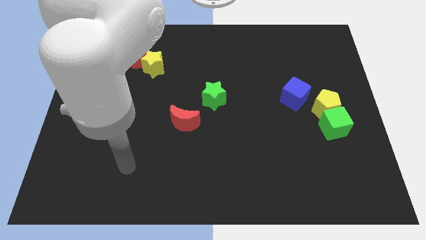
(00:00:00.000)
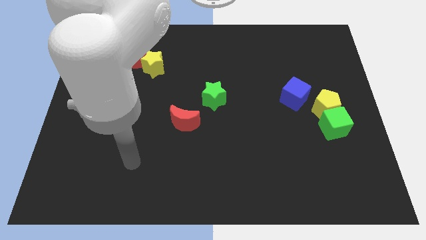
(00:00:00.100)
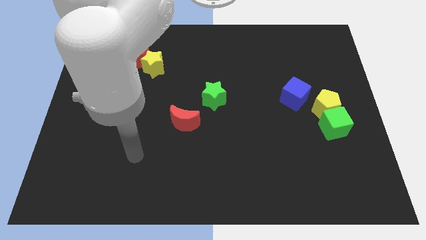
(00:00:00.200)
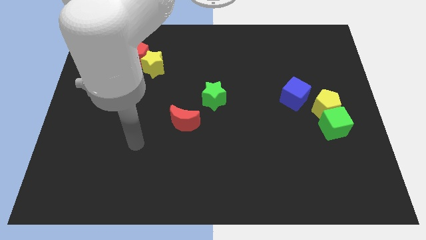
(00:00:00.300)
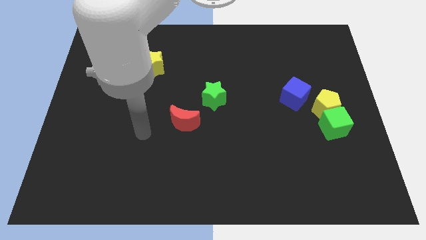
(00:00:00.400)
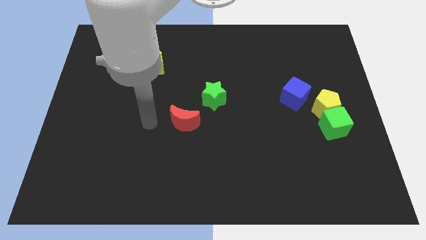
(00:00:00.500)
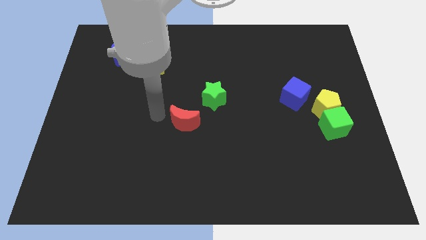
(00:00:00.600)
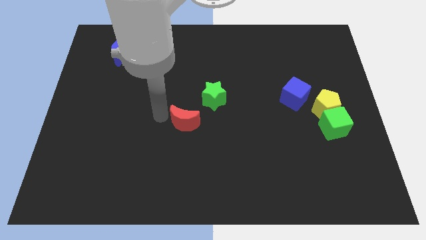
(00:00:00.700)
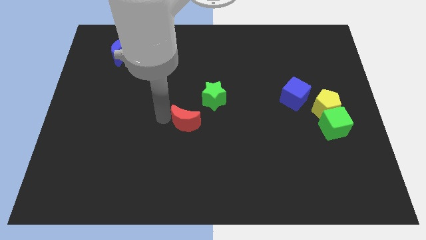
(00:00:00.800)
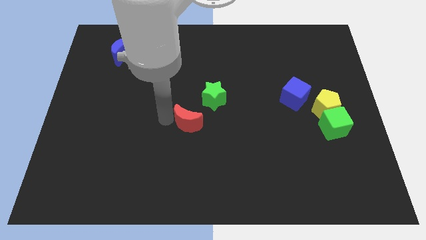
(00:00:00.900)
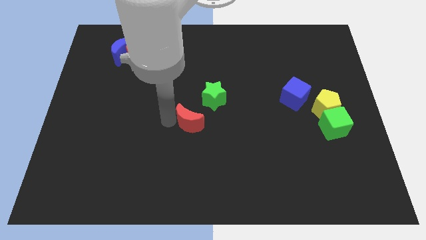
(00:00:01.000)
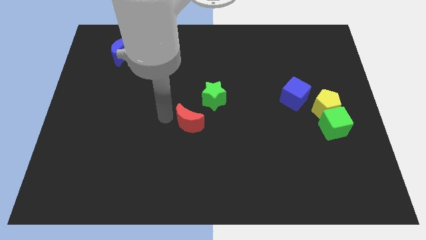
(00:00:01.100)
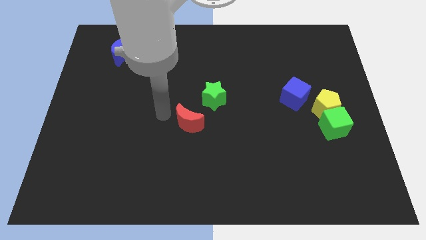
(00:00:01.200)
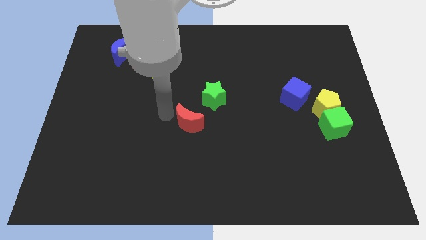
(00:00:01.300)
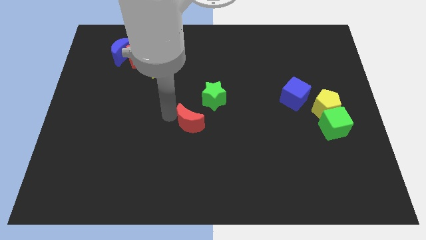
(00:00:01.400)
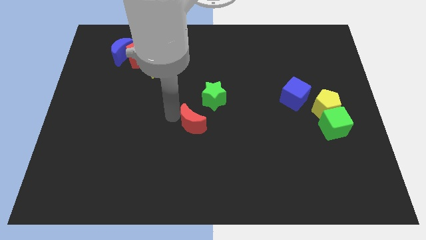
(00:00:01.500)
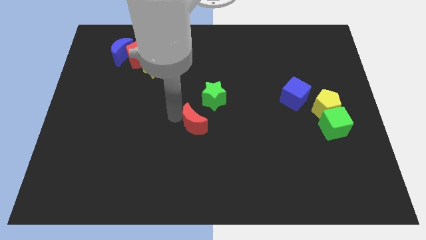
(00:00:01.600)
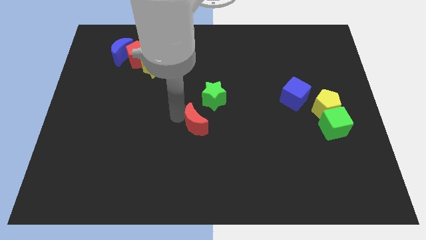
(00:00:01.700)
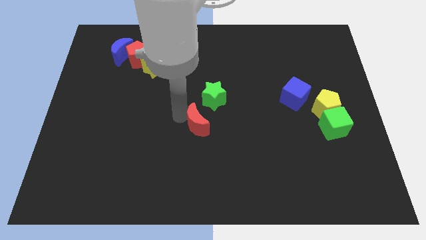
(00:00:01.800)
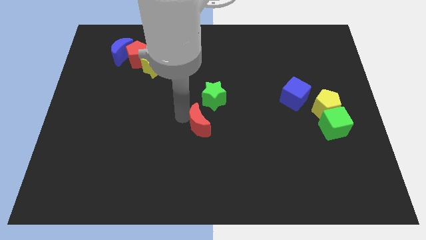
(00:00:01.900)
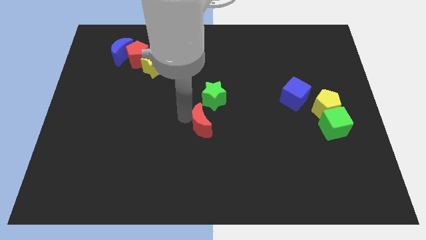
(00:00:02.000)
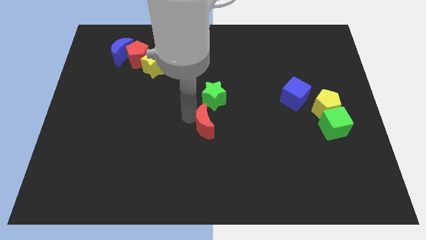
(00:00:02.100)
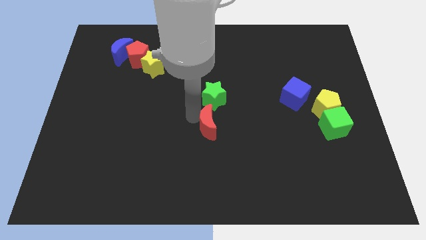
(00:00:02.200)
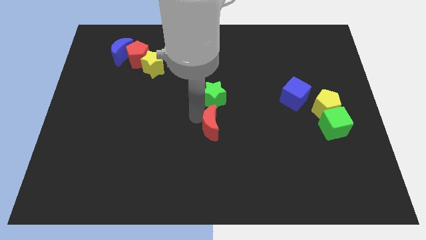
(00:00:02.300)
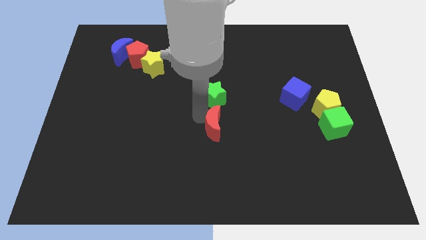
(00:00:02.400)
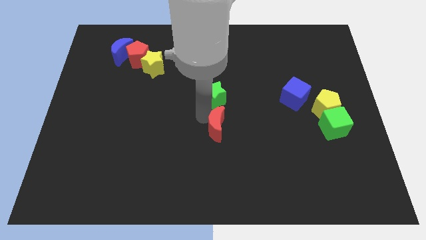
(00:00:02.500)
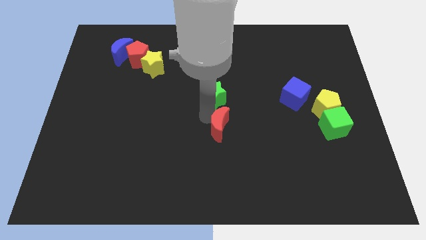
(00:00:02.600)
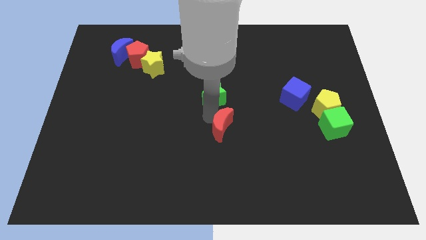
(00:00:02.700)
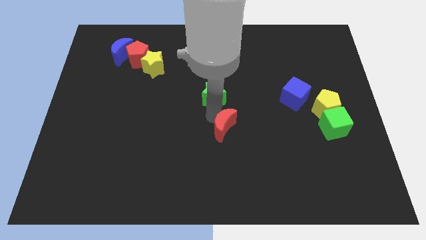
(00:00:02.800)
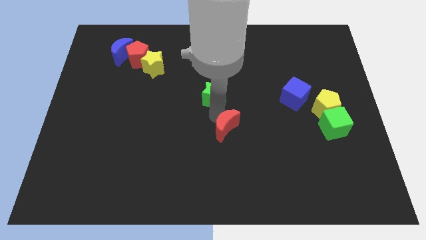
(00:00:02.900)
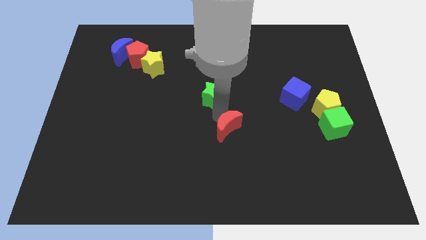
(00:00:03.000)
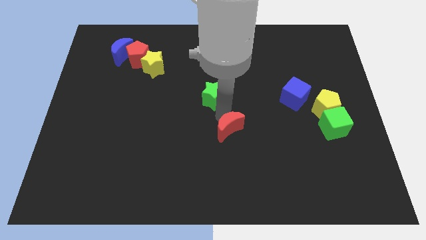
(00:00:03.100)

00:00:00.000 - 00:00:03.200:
move the red moon diagonally down and right a bit

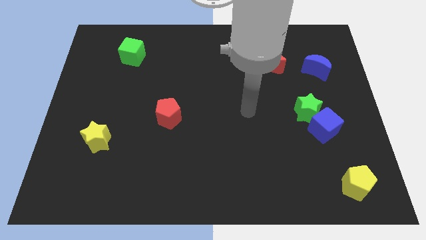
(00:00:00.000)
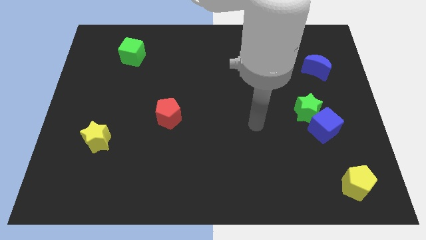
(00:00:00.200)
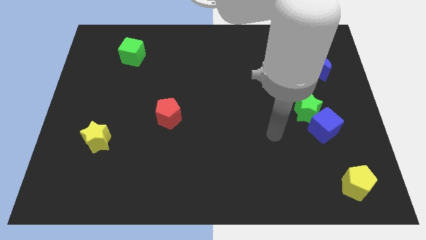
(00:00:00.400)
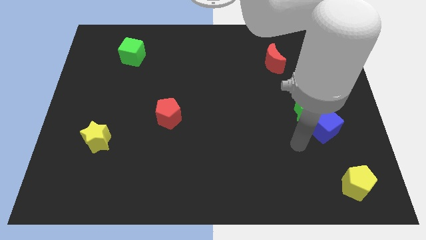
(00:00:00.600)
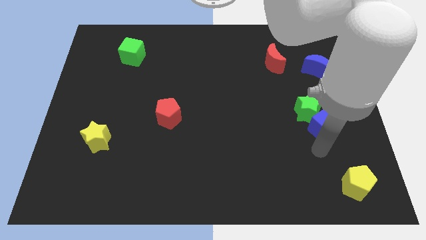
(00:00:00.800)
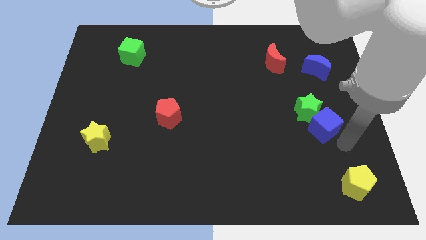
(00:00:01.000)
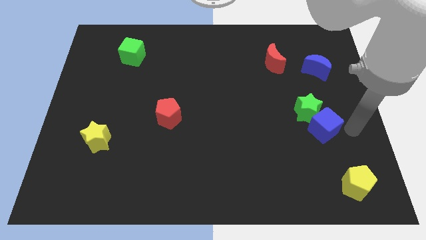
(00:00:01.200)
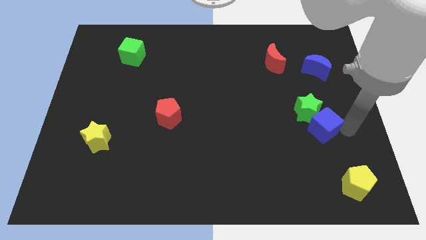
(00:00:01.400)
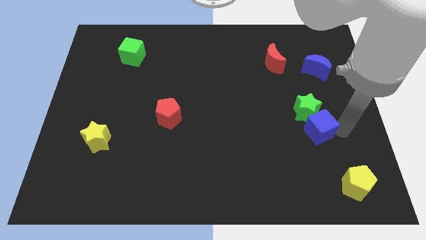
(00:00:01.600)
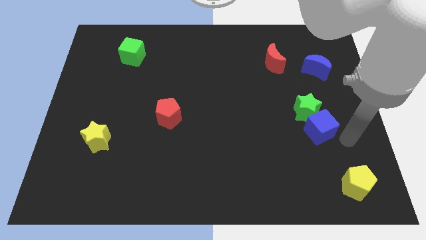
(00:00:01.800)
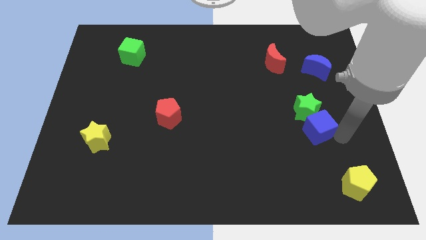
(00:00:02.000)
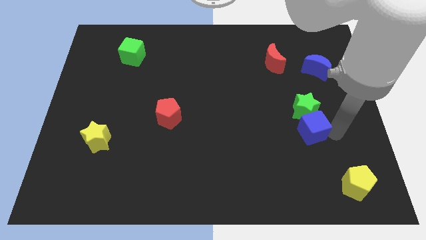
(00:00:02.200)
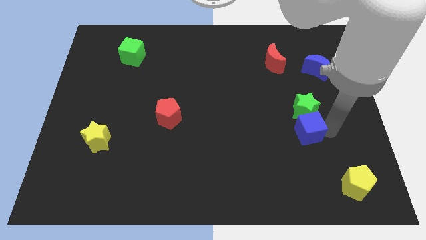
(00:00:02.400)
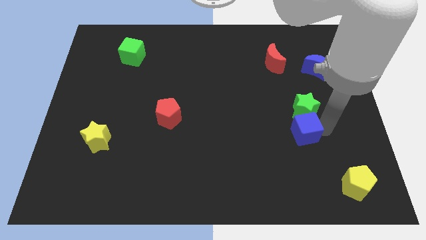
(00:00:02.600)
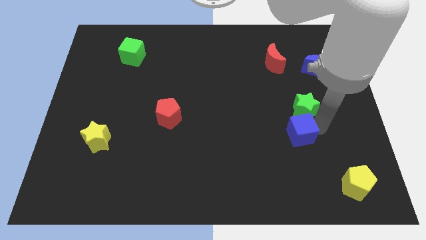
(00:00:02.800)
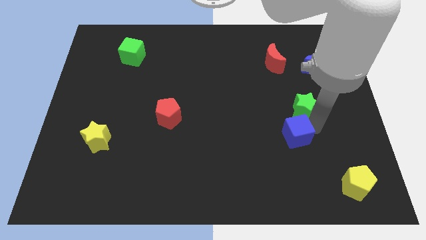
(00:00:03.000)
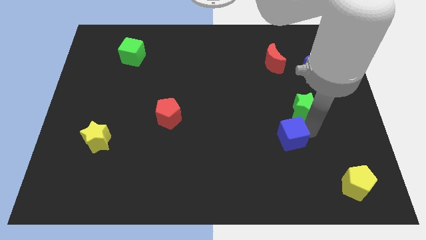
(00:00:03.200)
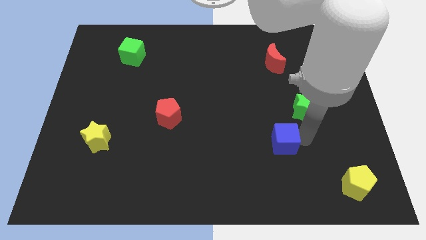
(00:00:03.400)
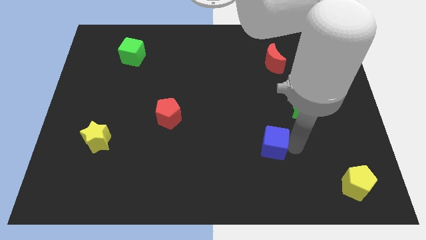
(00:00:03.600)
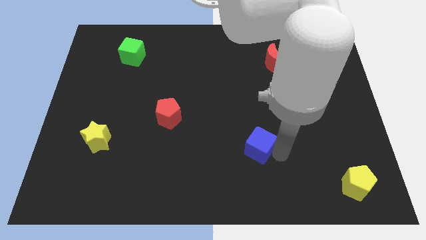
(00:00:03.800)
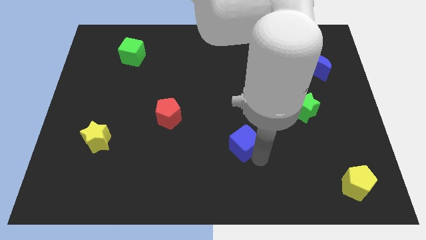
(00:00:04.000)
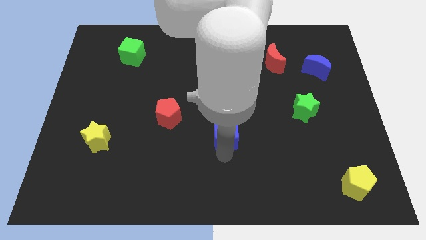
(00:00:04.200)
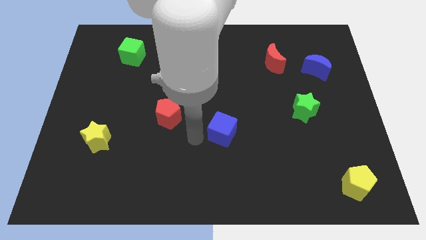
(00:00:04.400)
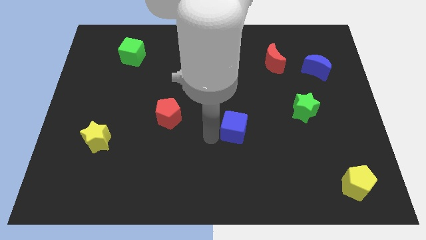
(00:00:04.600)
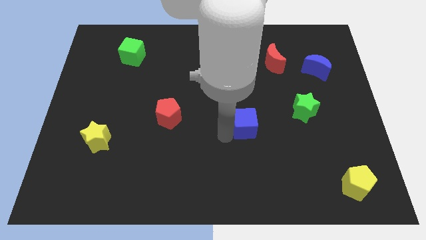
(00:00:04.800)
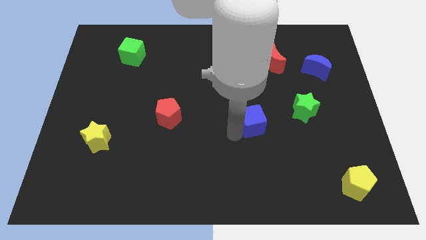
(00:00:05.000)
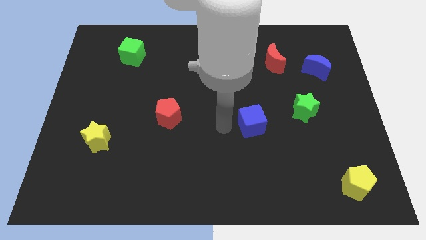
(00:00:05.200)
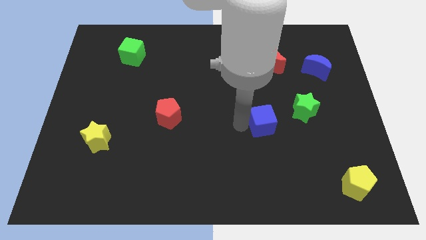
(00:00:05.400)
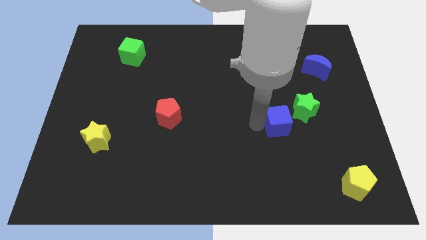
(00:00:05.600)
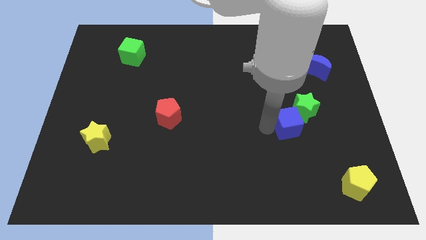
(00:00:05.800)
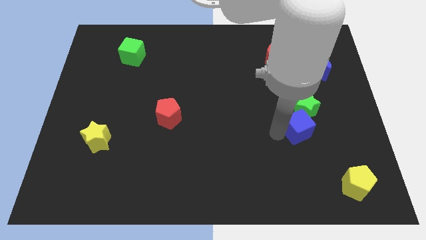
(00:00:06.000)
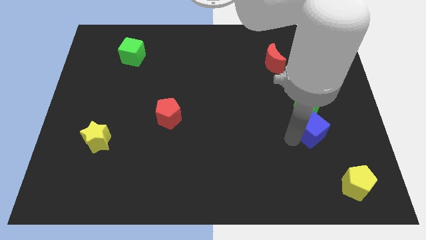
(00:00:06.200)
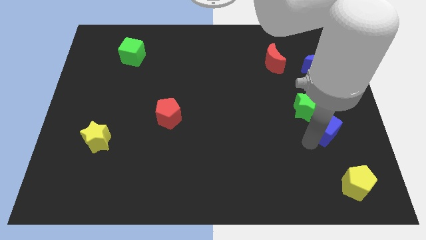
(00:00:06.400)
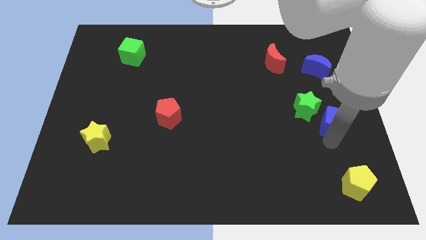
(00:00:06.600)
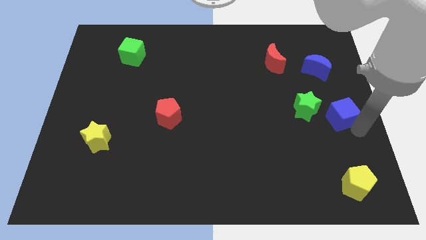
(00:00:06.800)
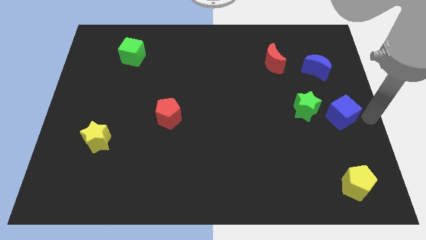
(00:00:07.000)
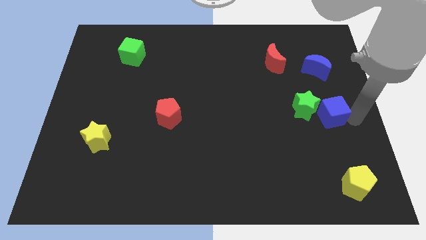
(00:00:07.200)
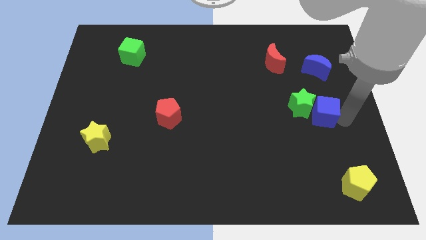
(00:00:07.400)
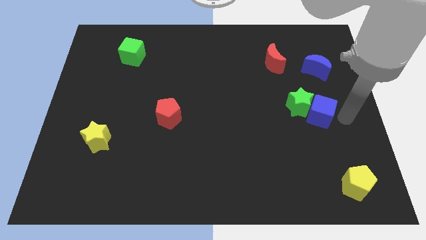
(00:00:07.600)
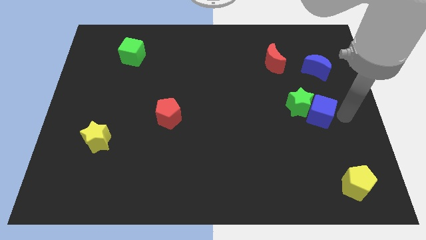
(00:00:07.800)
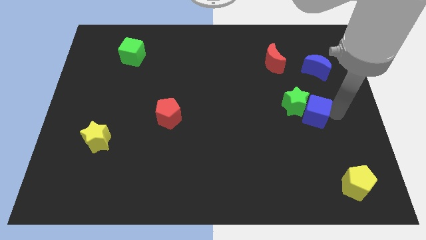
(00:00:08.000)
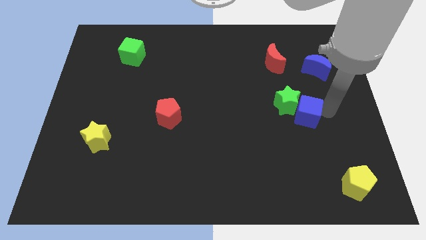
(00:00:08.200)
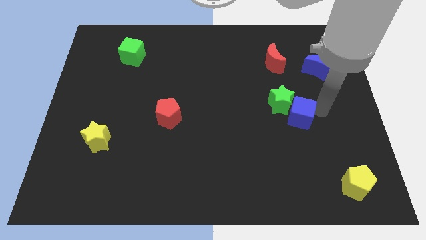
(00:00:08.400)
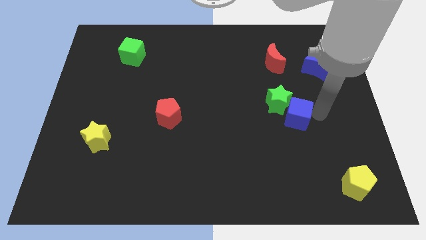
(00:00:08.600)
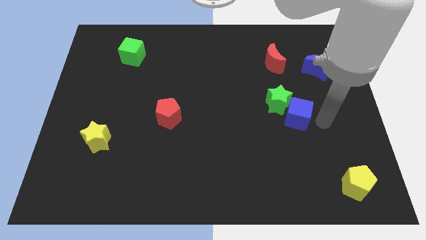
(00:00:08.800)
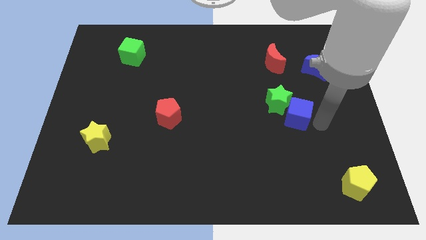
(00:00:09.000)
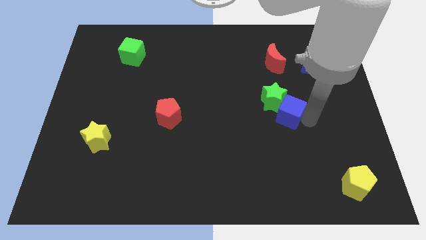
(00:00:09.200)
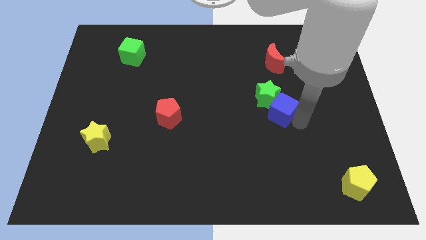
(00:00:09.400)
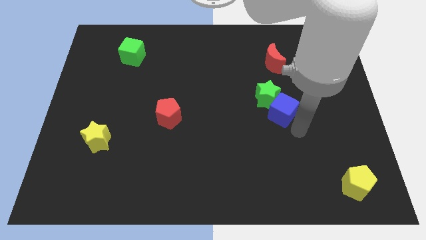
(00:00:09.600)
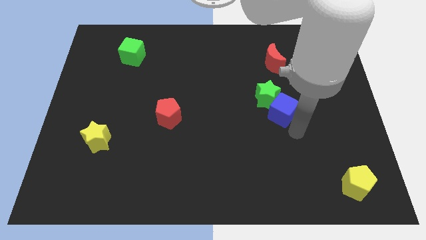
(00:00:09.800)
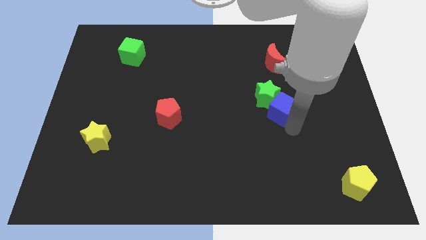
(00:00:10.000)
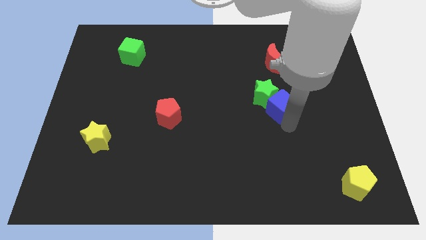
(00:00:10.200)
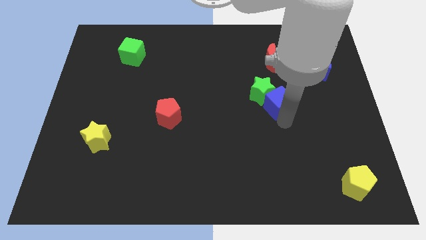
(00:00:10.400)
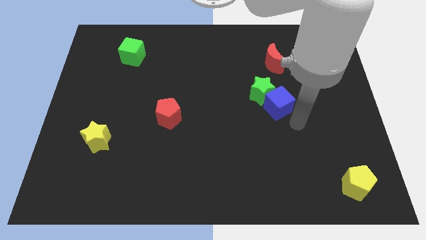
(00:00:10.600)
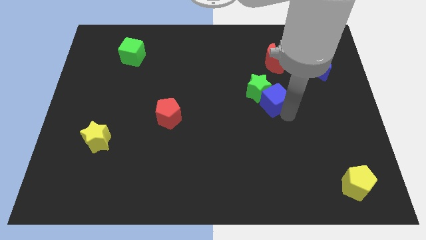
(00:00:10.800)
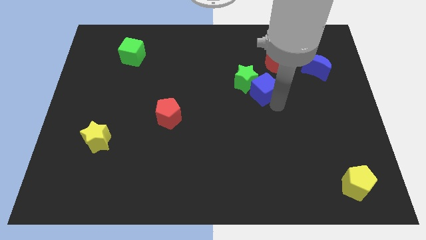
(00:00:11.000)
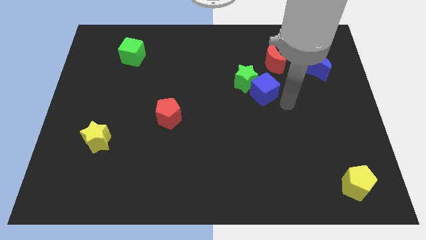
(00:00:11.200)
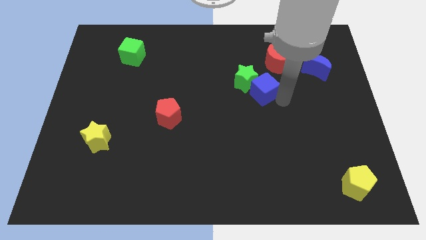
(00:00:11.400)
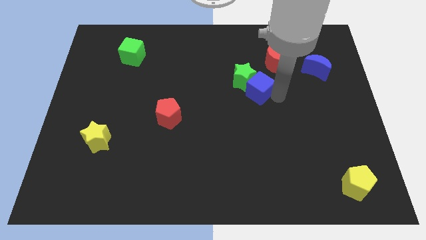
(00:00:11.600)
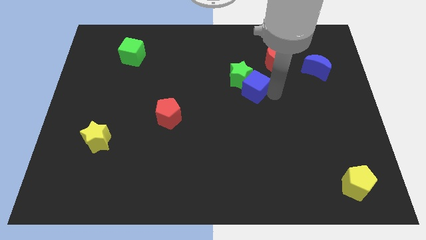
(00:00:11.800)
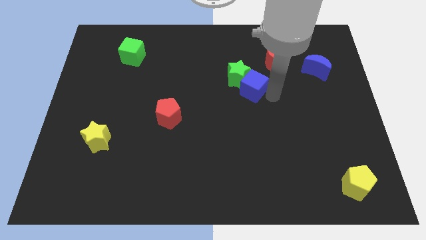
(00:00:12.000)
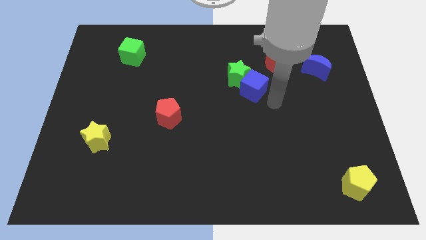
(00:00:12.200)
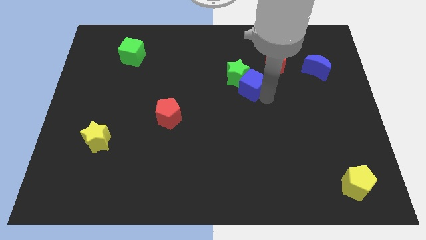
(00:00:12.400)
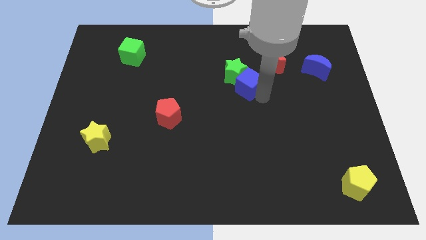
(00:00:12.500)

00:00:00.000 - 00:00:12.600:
move the blue cube diagonally up and left
